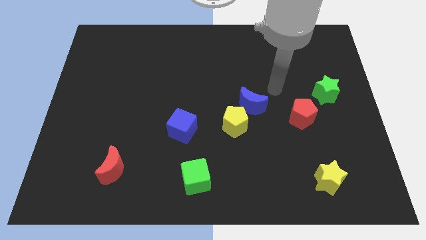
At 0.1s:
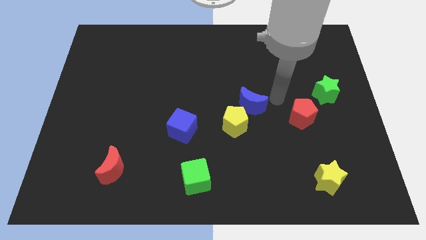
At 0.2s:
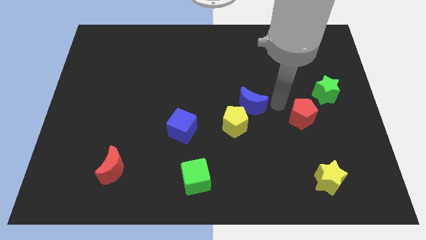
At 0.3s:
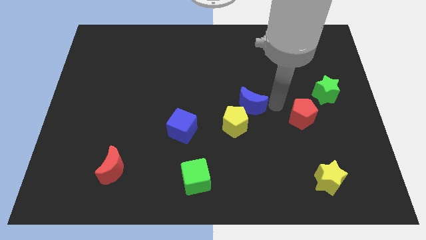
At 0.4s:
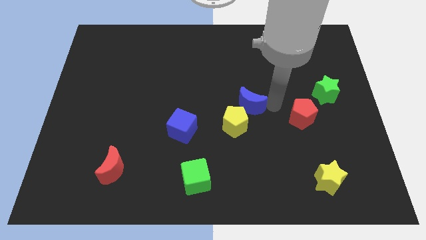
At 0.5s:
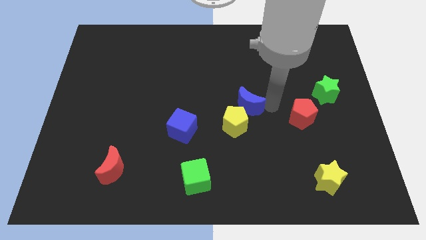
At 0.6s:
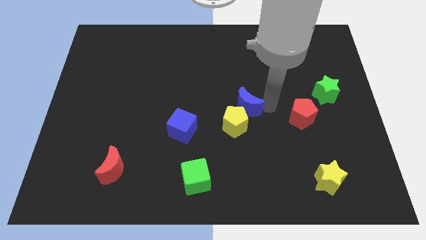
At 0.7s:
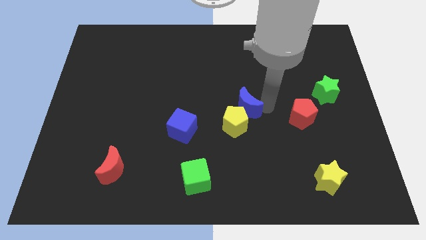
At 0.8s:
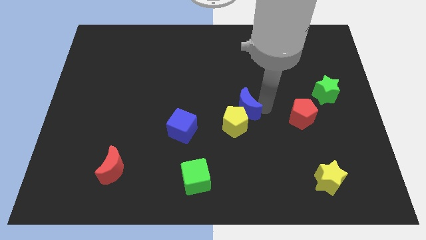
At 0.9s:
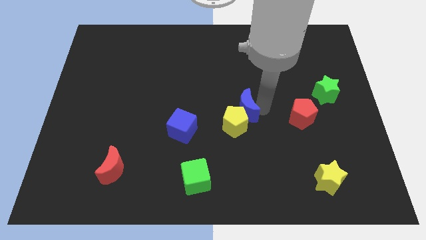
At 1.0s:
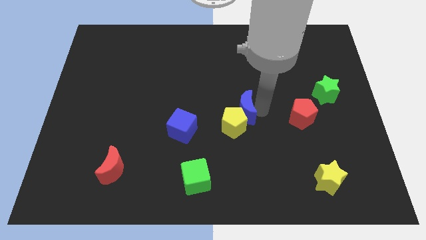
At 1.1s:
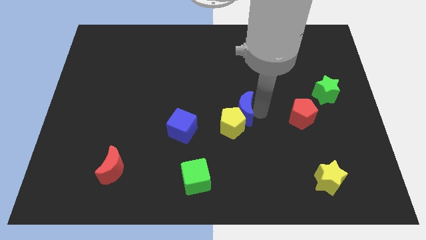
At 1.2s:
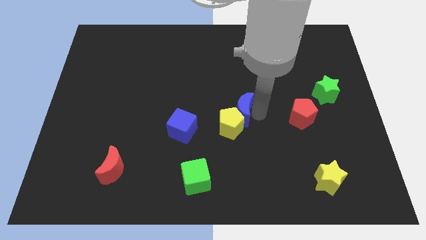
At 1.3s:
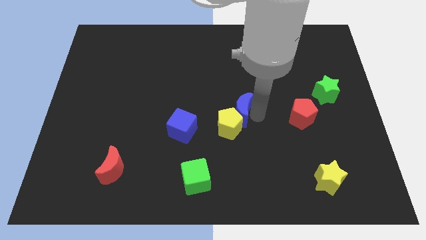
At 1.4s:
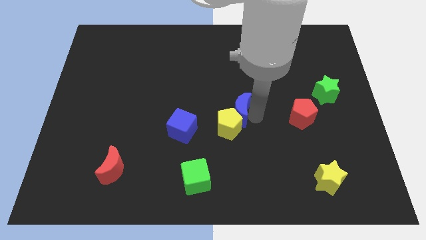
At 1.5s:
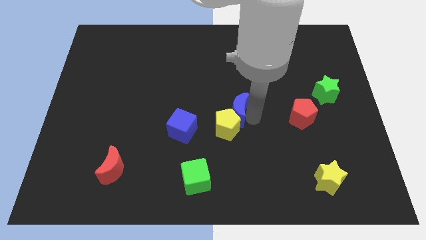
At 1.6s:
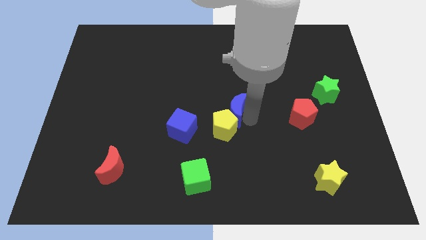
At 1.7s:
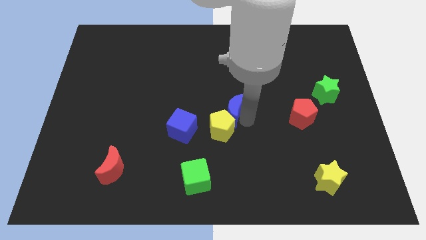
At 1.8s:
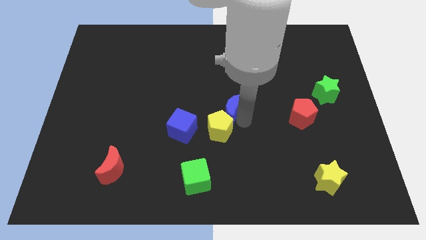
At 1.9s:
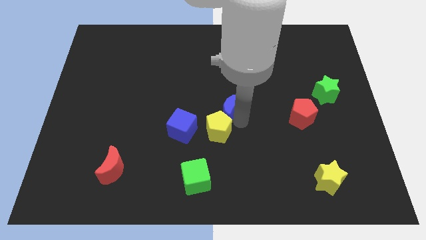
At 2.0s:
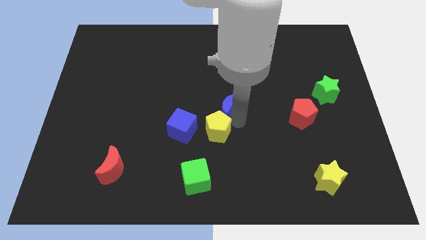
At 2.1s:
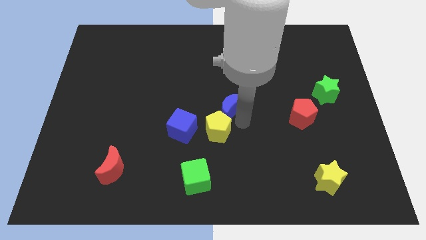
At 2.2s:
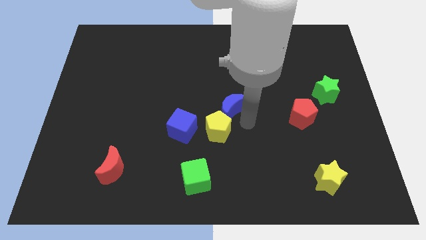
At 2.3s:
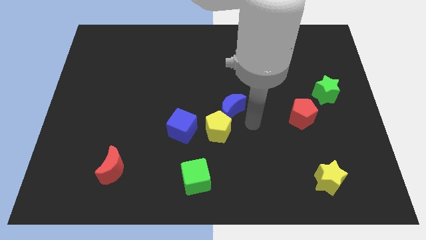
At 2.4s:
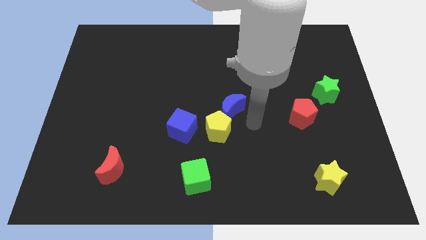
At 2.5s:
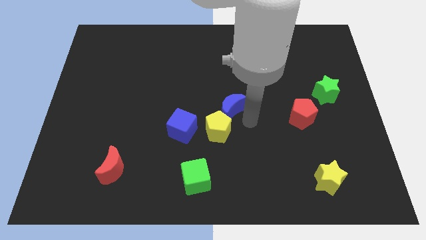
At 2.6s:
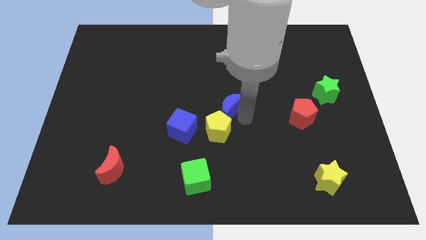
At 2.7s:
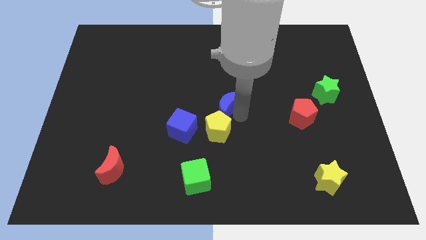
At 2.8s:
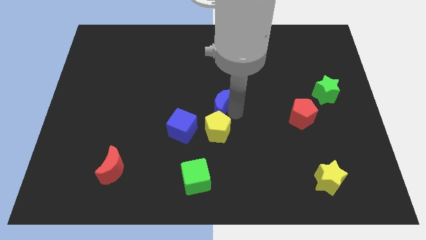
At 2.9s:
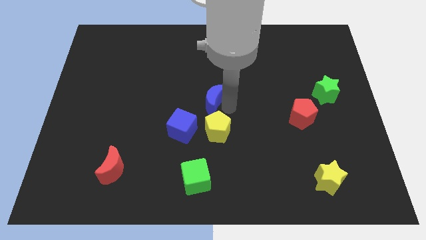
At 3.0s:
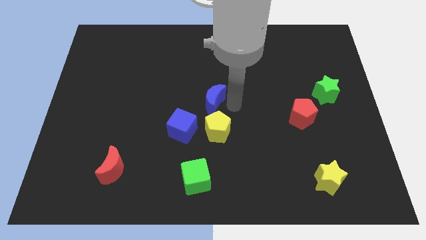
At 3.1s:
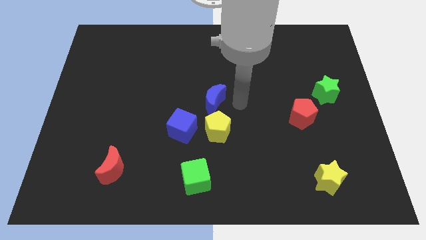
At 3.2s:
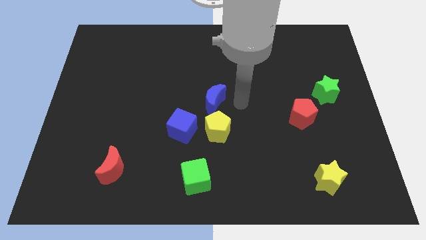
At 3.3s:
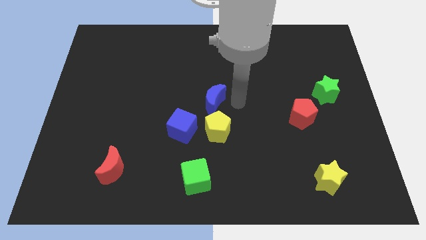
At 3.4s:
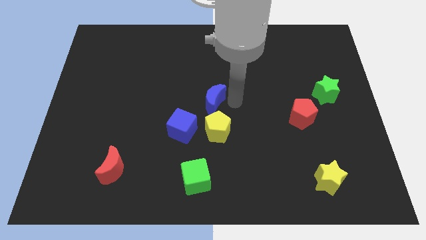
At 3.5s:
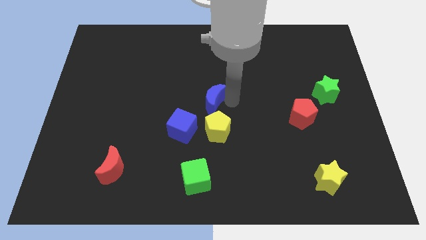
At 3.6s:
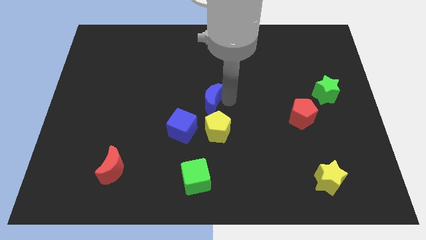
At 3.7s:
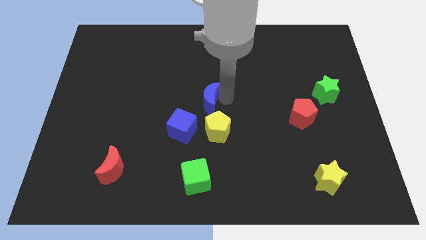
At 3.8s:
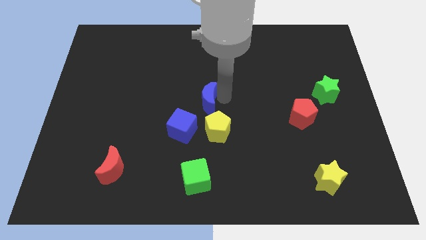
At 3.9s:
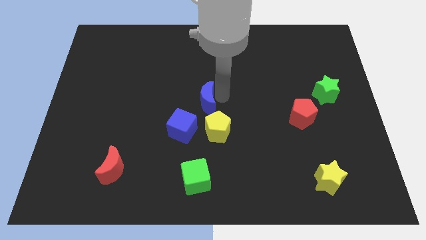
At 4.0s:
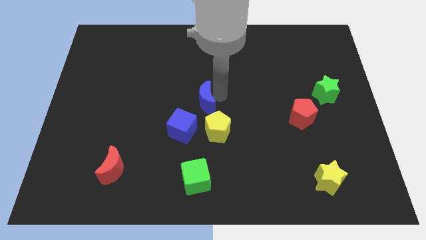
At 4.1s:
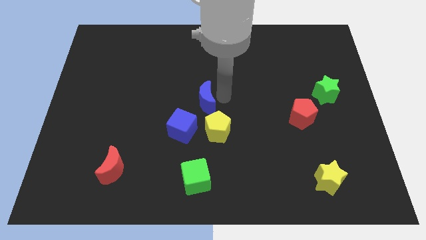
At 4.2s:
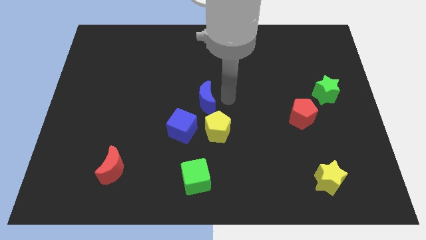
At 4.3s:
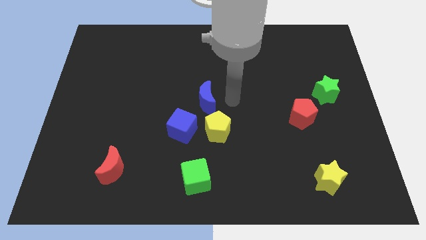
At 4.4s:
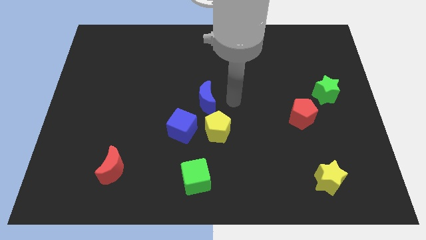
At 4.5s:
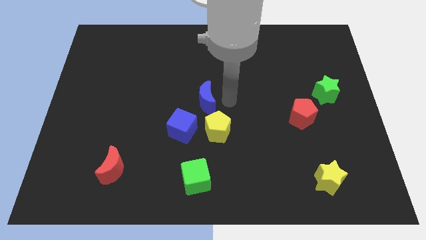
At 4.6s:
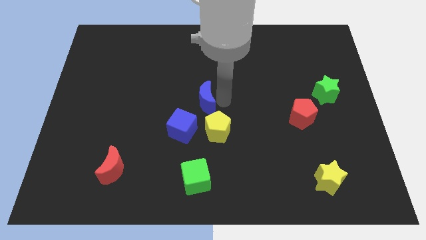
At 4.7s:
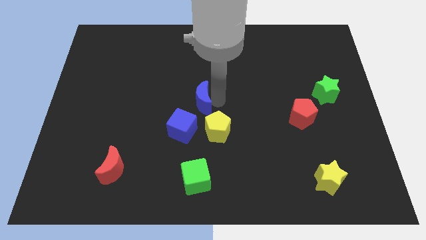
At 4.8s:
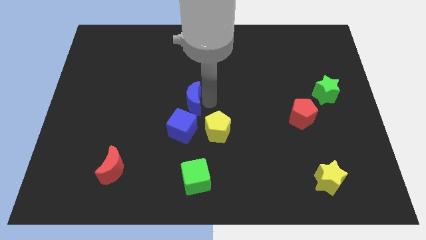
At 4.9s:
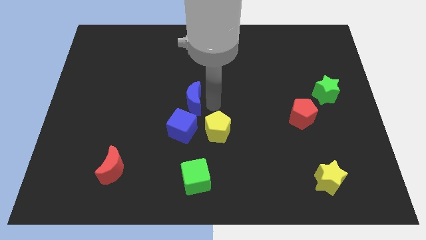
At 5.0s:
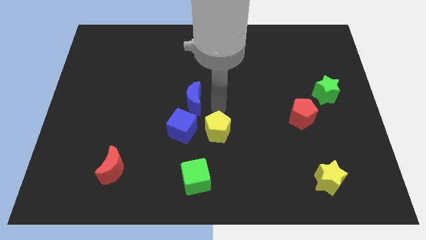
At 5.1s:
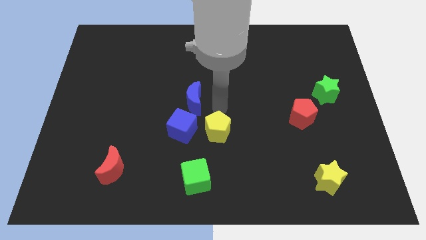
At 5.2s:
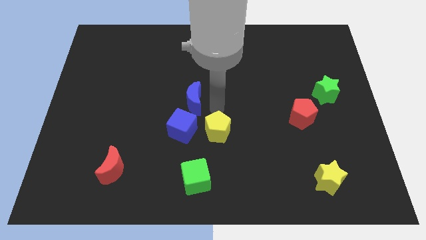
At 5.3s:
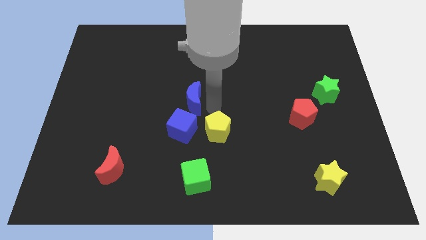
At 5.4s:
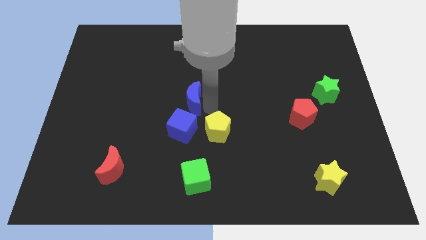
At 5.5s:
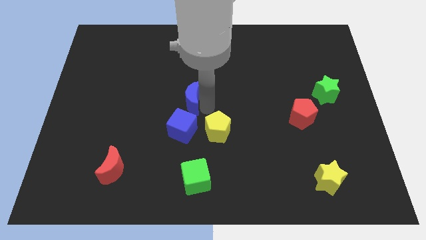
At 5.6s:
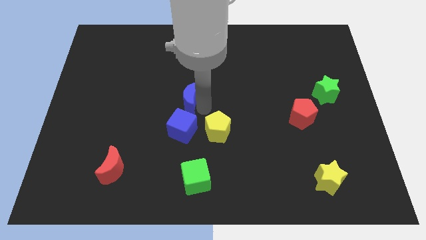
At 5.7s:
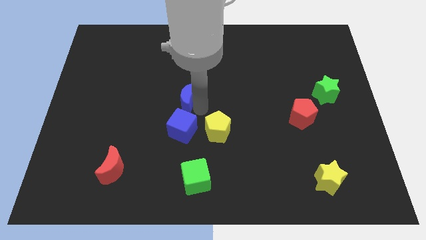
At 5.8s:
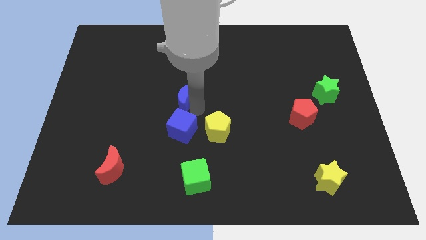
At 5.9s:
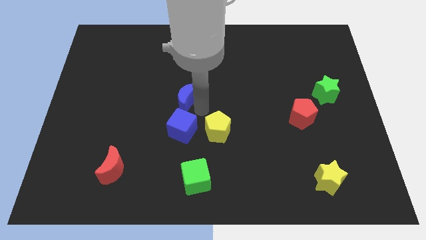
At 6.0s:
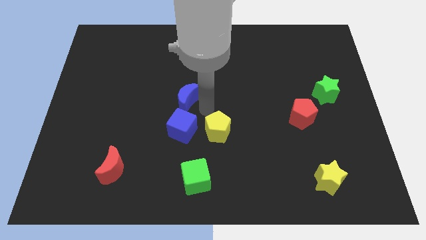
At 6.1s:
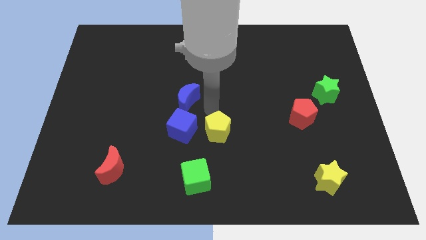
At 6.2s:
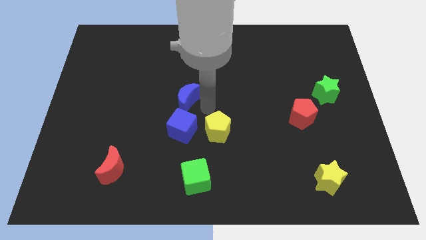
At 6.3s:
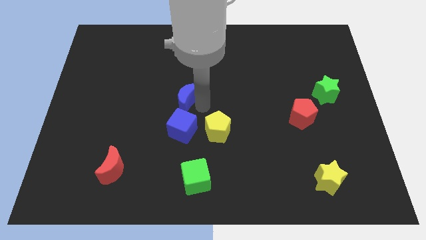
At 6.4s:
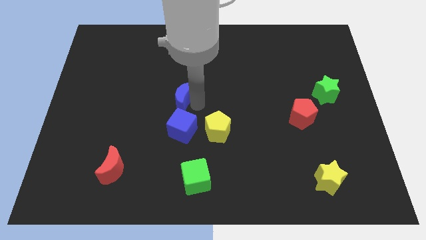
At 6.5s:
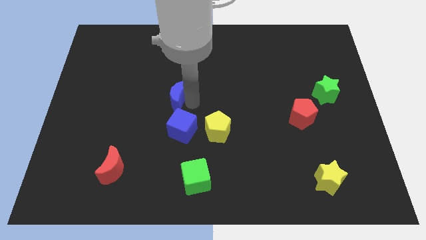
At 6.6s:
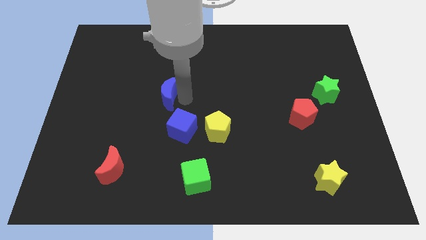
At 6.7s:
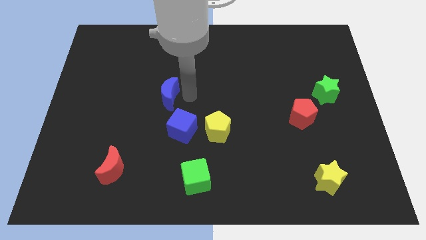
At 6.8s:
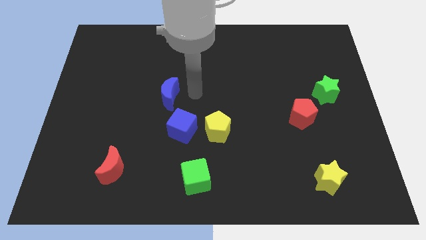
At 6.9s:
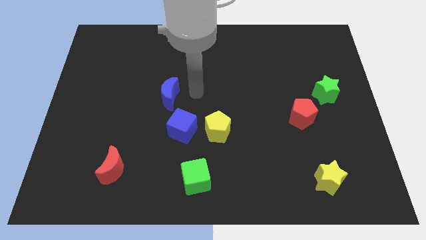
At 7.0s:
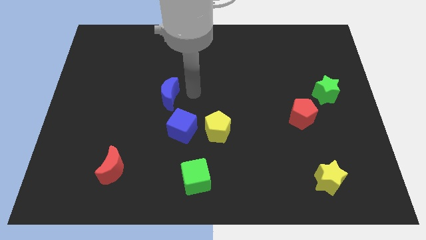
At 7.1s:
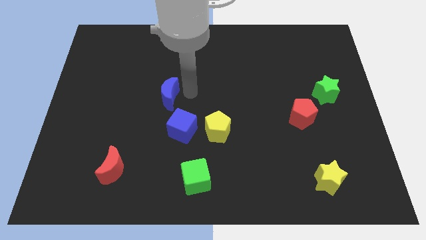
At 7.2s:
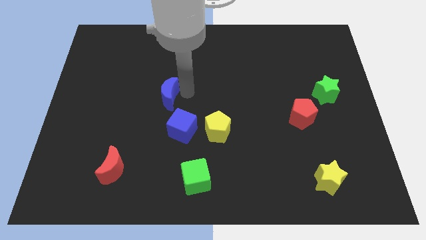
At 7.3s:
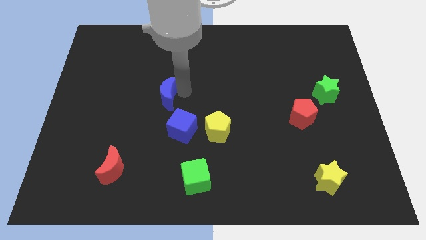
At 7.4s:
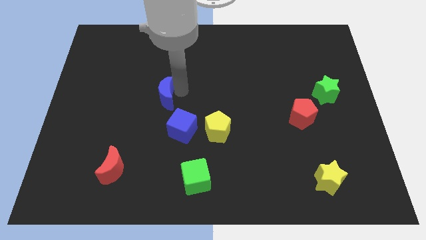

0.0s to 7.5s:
push the blue moon left

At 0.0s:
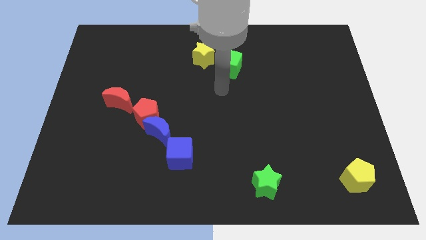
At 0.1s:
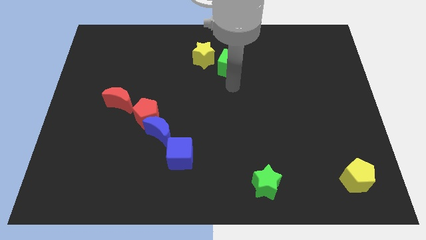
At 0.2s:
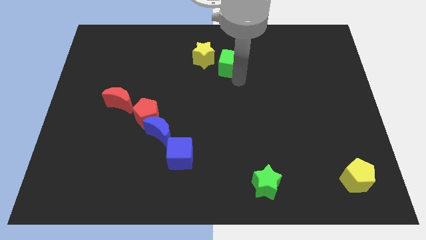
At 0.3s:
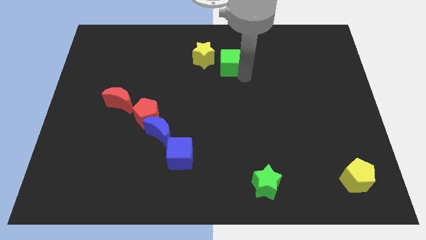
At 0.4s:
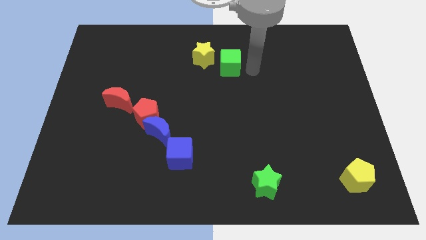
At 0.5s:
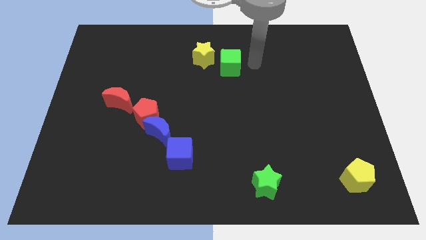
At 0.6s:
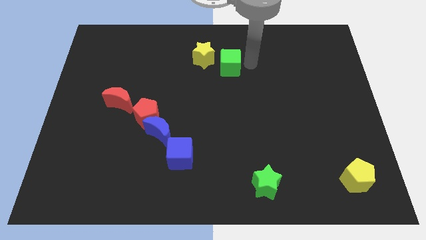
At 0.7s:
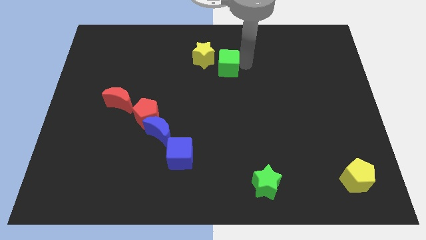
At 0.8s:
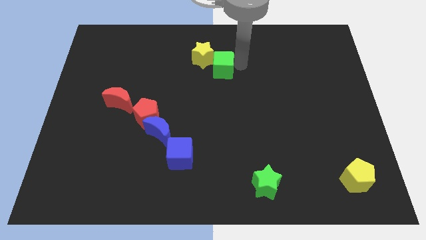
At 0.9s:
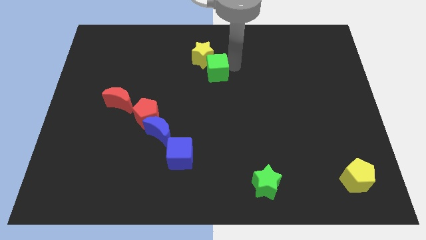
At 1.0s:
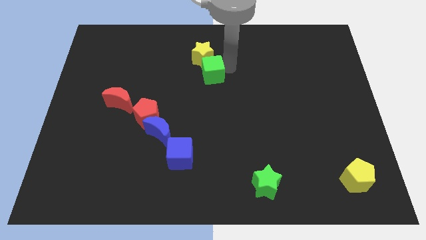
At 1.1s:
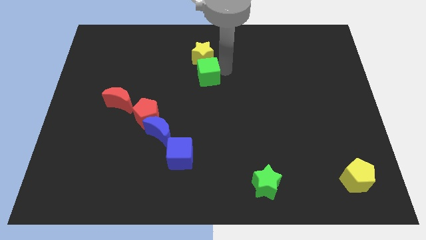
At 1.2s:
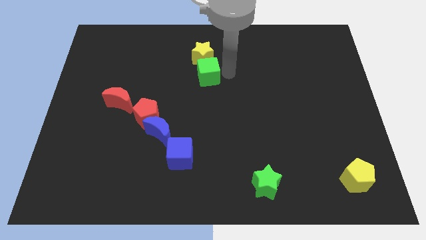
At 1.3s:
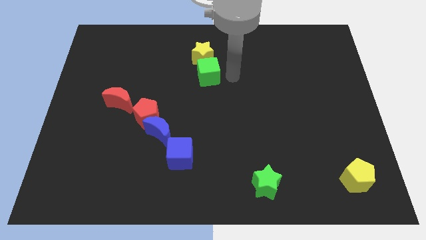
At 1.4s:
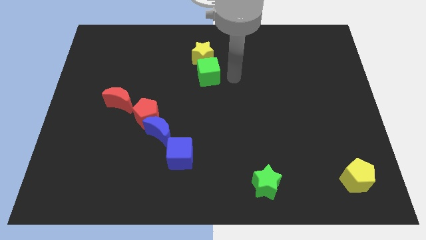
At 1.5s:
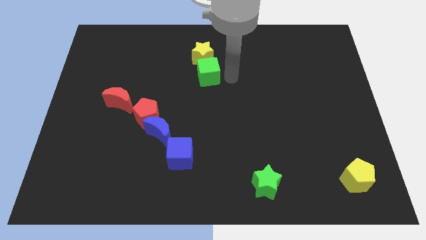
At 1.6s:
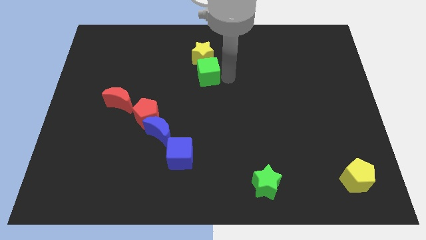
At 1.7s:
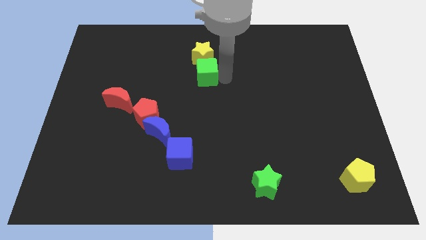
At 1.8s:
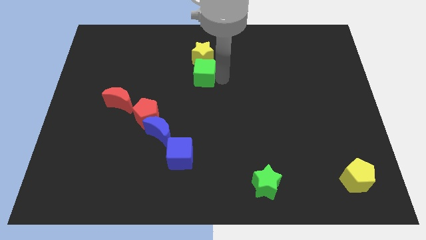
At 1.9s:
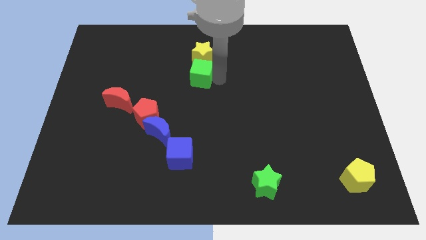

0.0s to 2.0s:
slightly push the green cube to the left
